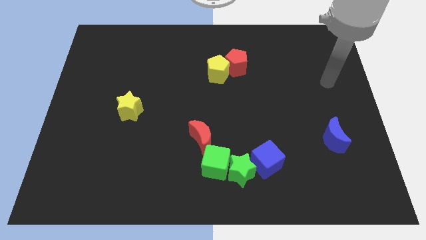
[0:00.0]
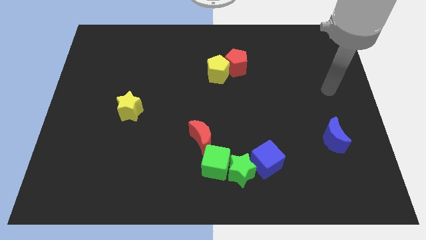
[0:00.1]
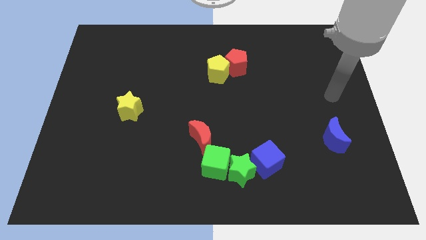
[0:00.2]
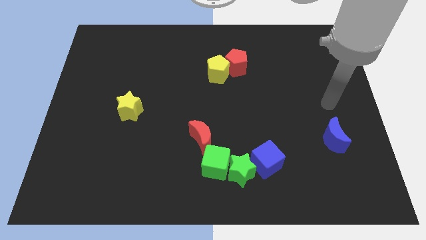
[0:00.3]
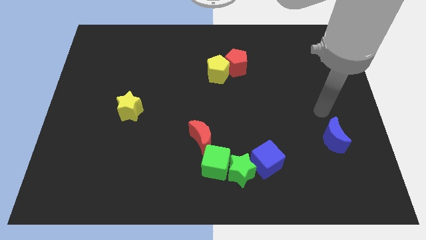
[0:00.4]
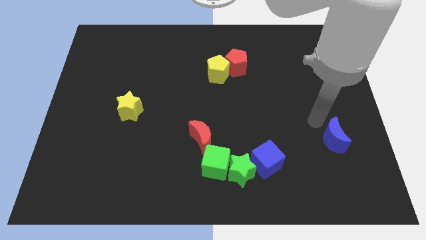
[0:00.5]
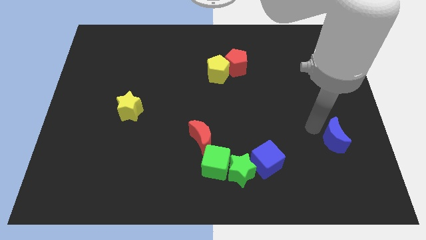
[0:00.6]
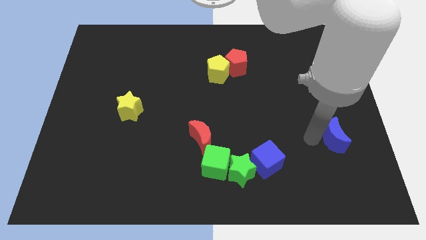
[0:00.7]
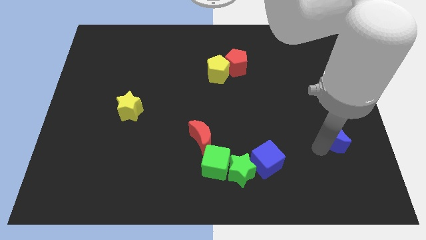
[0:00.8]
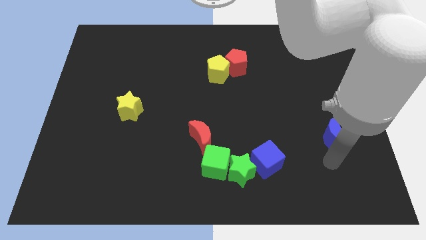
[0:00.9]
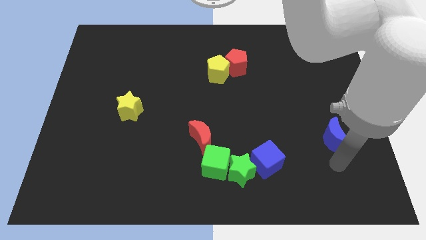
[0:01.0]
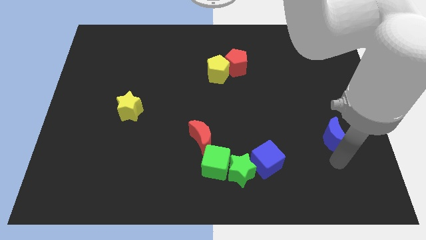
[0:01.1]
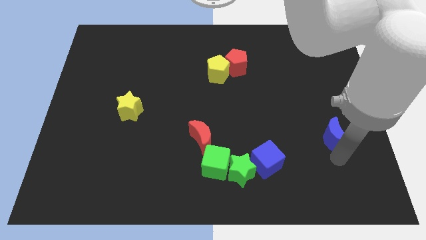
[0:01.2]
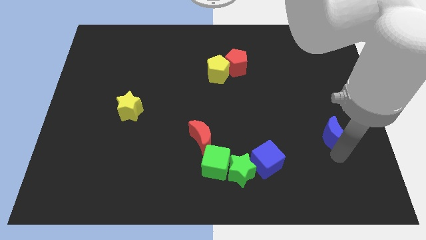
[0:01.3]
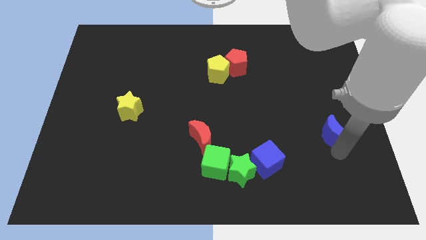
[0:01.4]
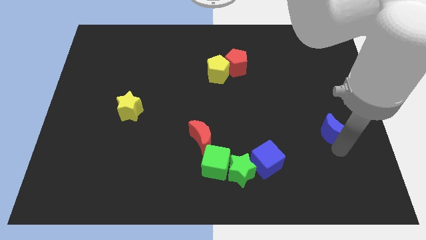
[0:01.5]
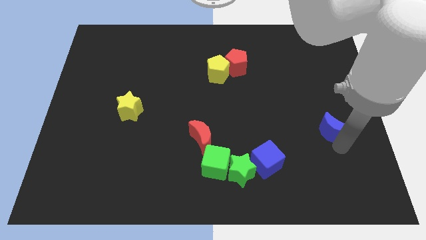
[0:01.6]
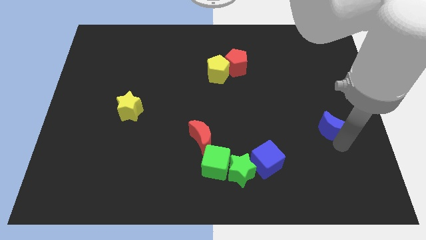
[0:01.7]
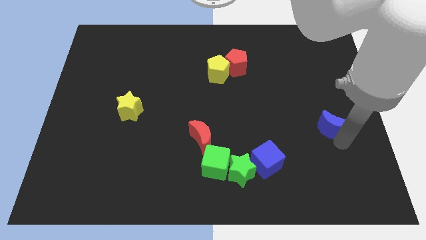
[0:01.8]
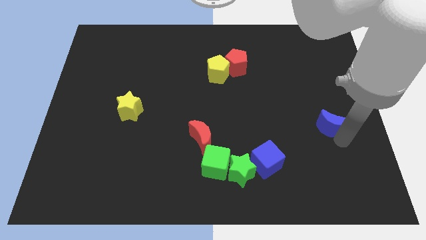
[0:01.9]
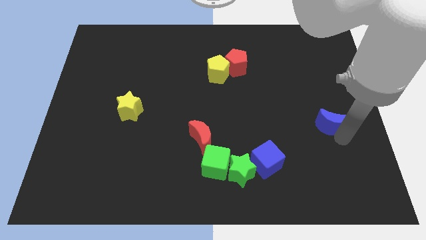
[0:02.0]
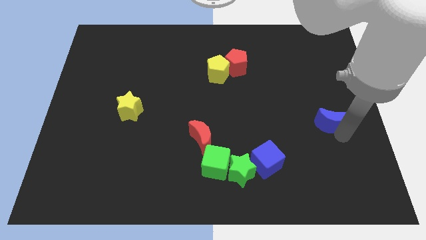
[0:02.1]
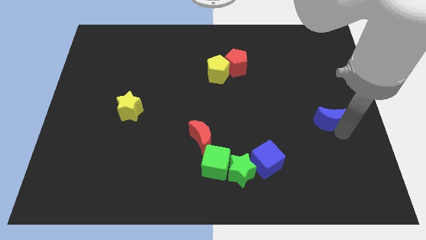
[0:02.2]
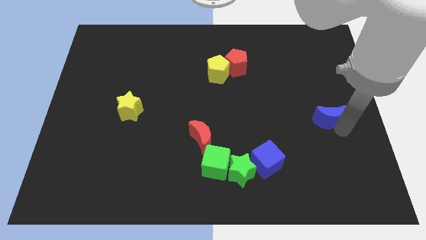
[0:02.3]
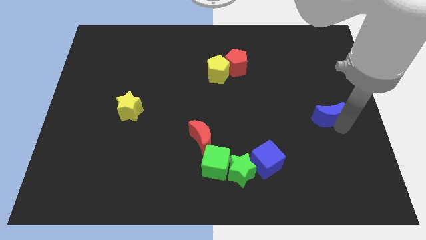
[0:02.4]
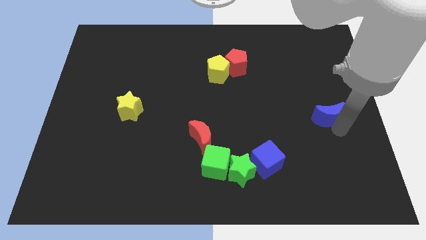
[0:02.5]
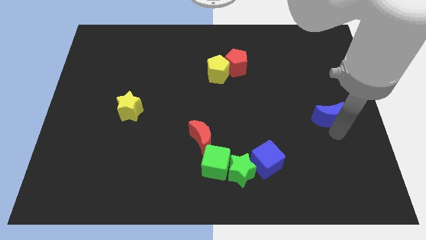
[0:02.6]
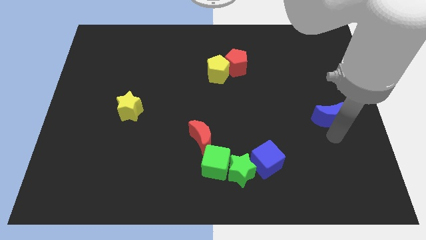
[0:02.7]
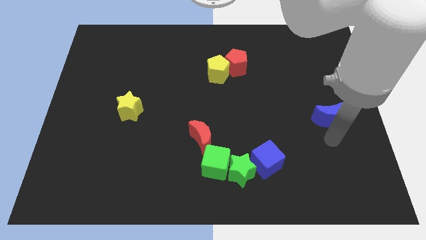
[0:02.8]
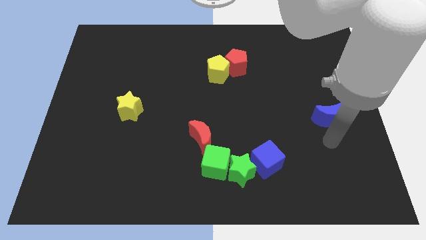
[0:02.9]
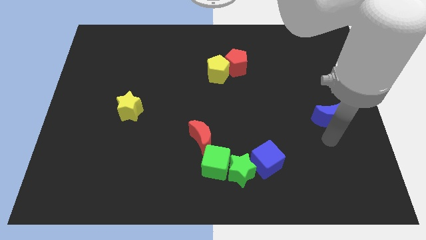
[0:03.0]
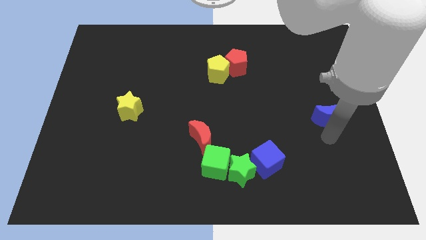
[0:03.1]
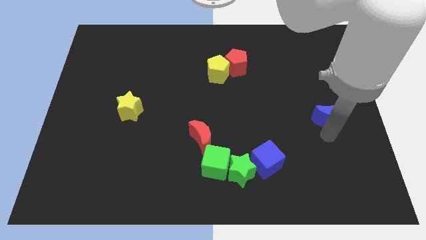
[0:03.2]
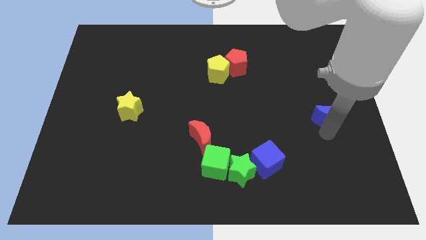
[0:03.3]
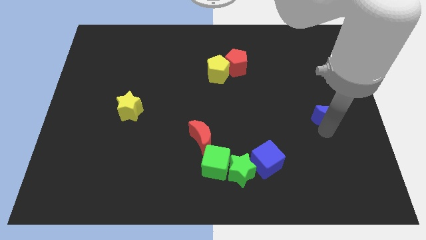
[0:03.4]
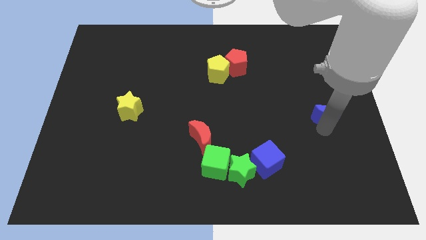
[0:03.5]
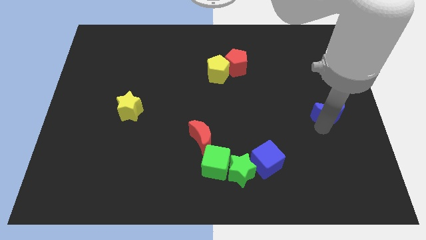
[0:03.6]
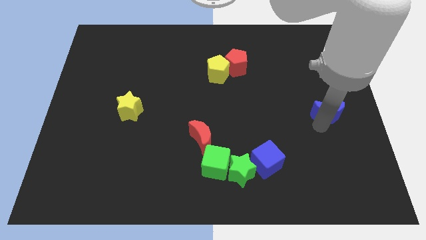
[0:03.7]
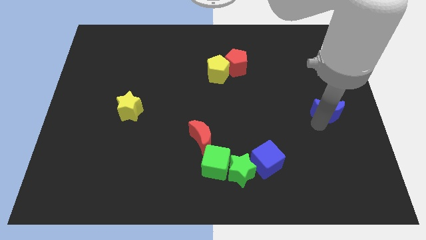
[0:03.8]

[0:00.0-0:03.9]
move the blue moon up somewhat

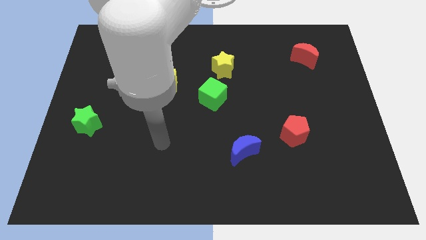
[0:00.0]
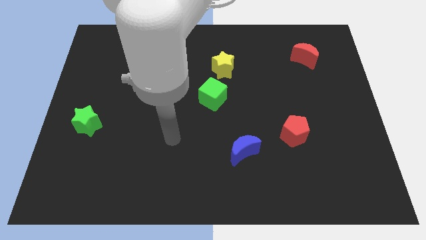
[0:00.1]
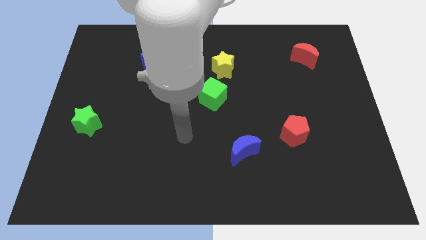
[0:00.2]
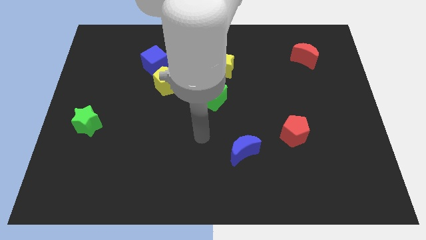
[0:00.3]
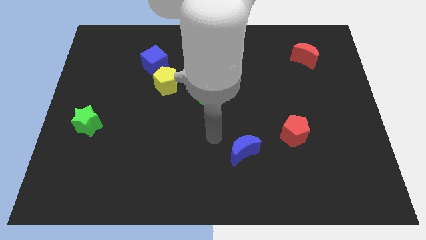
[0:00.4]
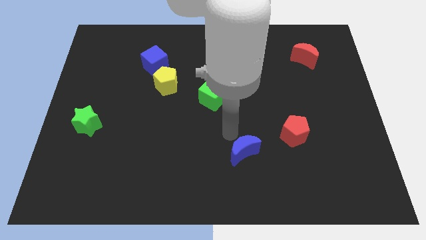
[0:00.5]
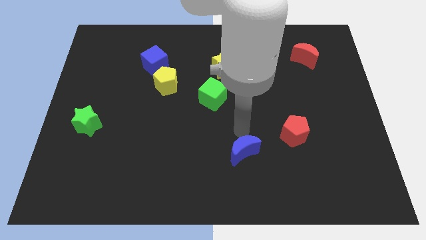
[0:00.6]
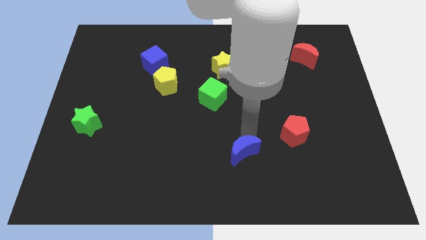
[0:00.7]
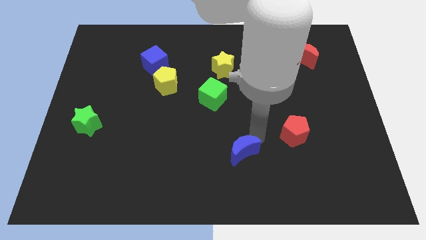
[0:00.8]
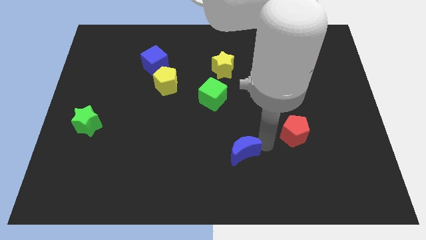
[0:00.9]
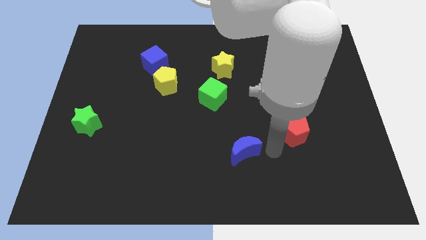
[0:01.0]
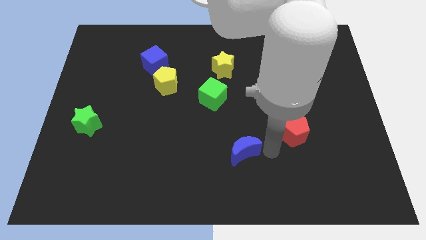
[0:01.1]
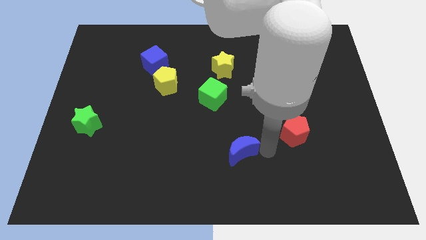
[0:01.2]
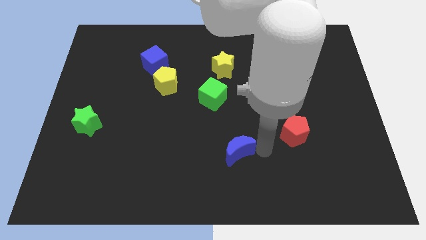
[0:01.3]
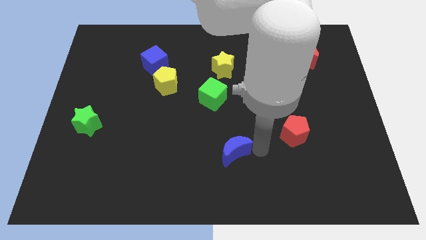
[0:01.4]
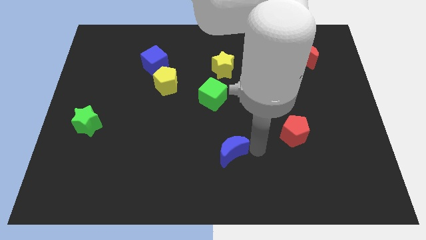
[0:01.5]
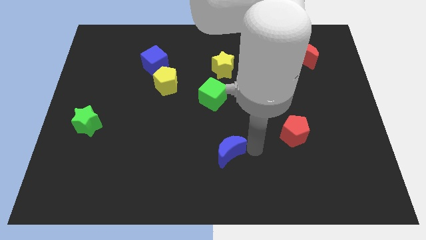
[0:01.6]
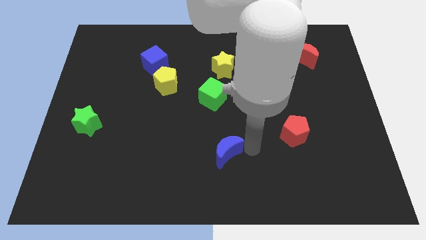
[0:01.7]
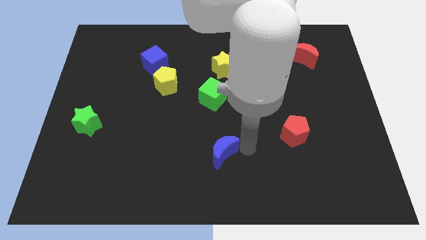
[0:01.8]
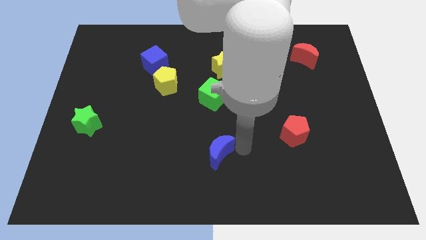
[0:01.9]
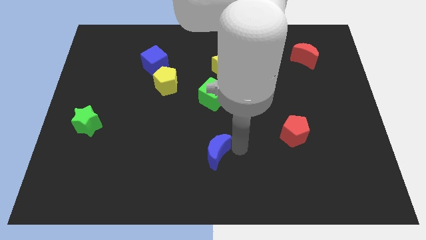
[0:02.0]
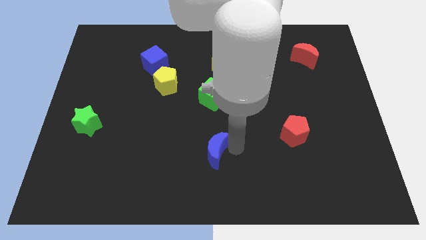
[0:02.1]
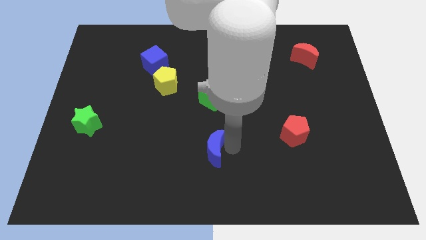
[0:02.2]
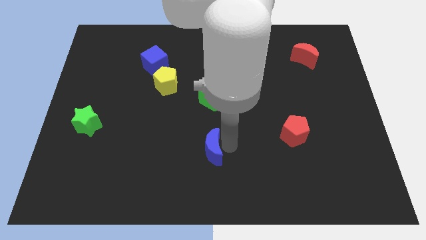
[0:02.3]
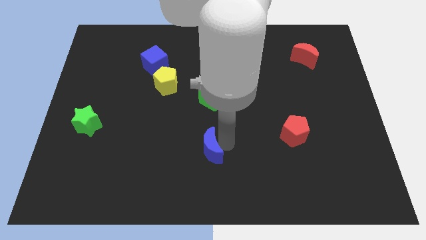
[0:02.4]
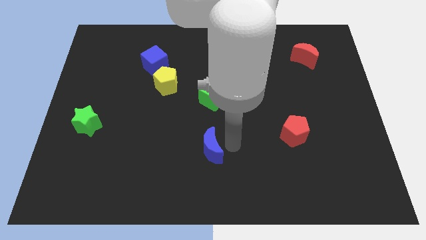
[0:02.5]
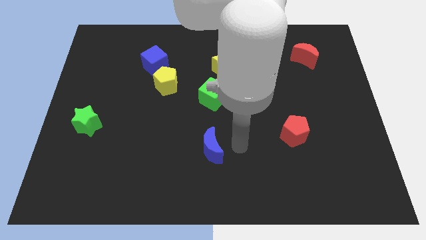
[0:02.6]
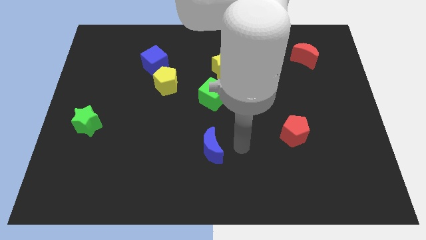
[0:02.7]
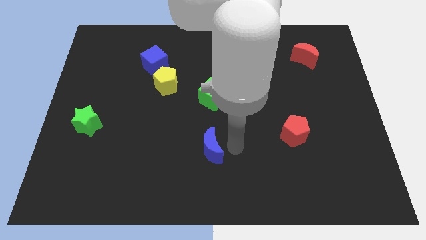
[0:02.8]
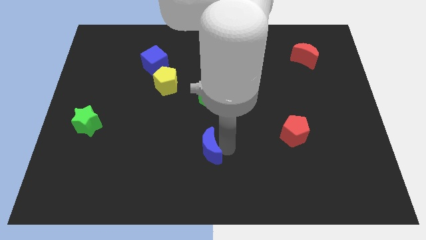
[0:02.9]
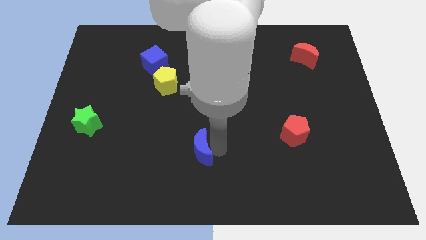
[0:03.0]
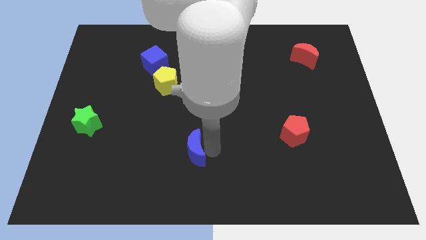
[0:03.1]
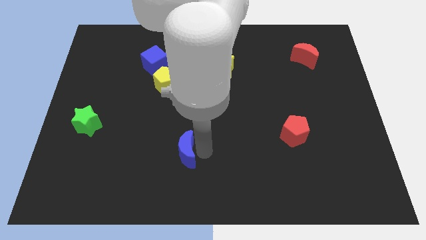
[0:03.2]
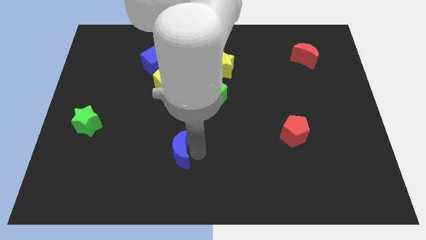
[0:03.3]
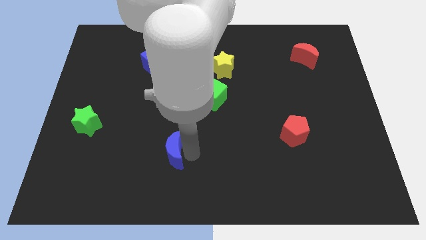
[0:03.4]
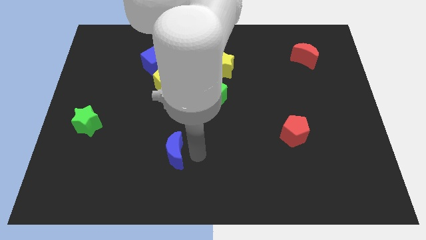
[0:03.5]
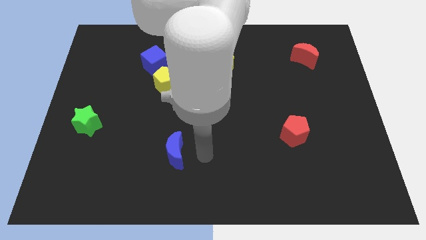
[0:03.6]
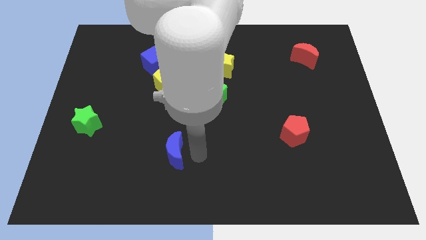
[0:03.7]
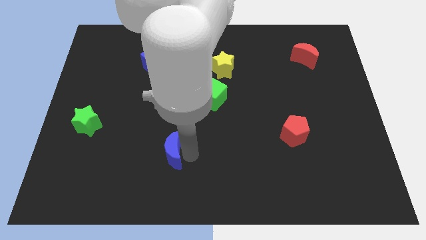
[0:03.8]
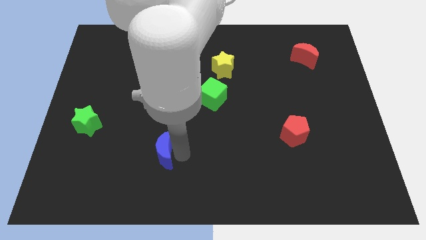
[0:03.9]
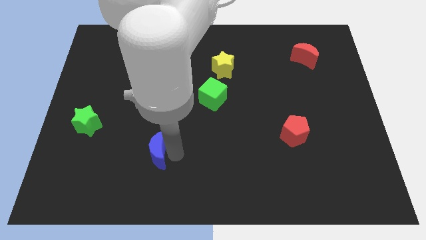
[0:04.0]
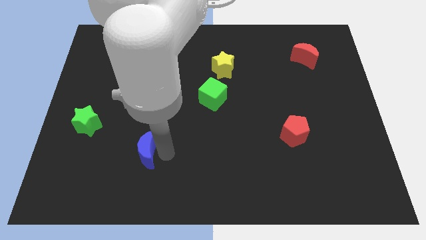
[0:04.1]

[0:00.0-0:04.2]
slide the blue moon left

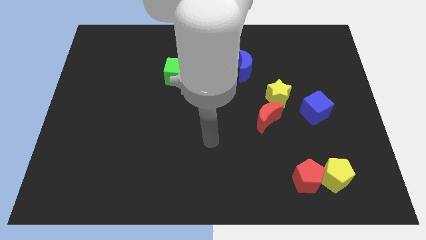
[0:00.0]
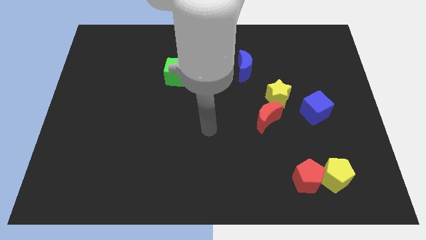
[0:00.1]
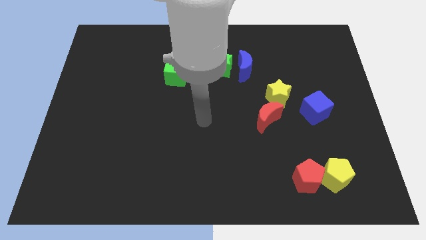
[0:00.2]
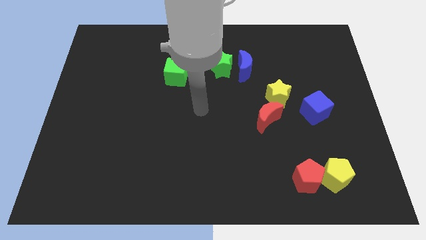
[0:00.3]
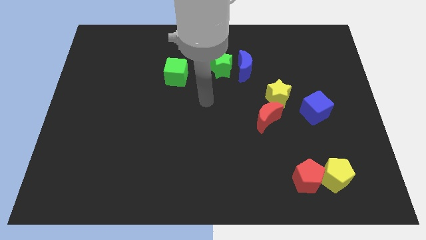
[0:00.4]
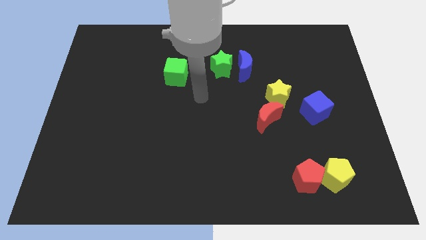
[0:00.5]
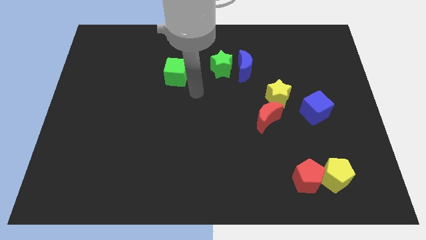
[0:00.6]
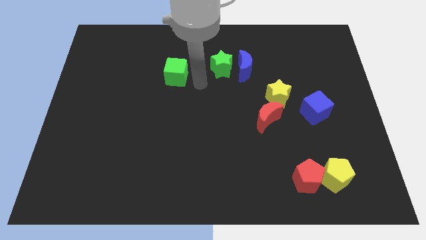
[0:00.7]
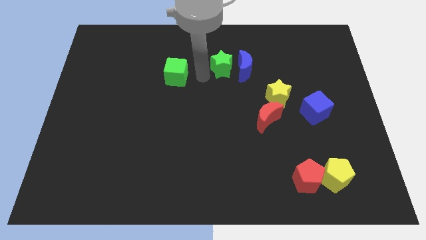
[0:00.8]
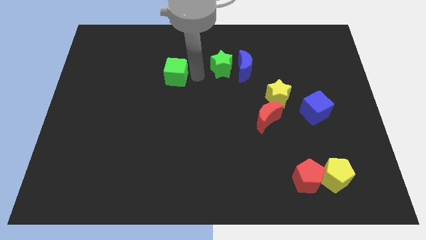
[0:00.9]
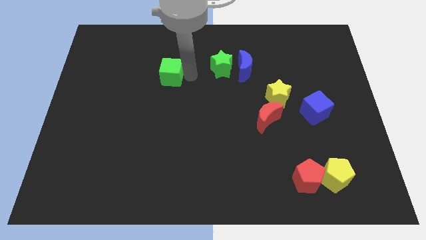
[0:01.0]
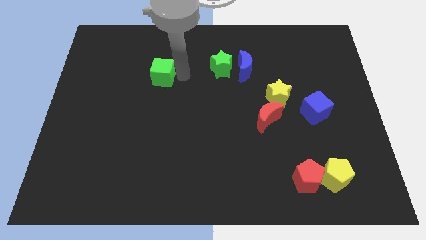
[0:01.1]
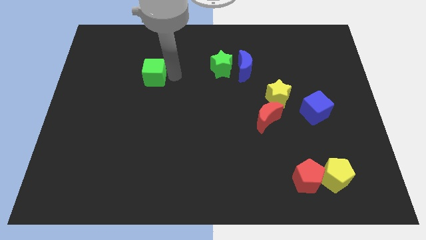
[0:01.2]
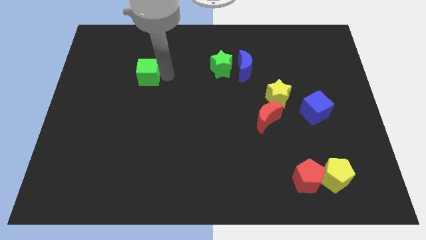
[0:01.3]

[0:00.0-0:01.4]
move the green cube slightly left
